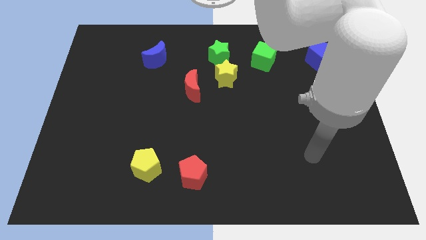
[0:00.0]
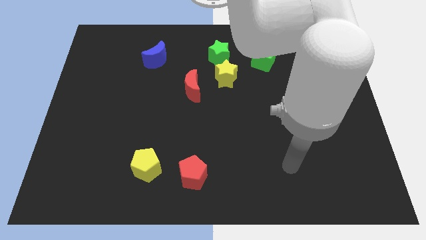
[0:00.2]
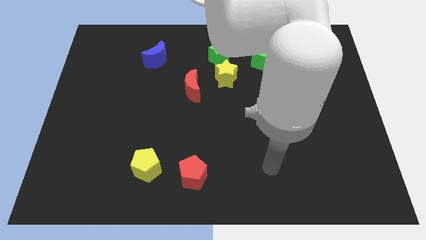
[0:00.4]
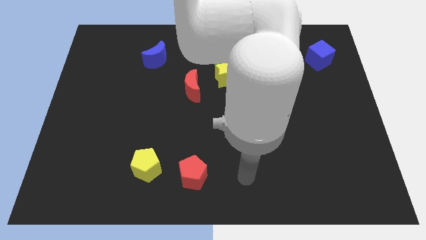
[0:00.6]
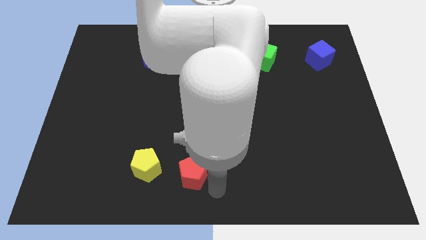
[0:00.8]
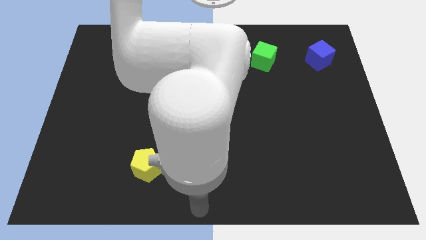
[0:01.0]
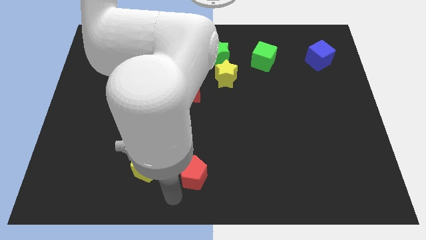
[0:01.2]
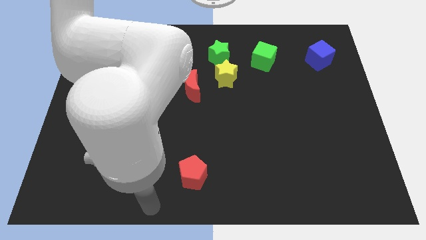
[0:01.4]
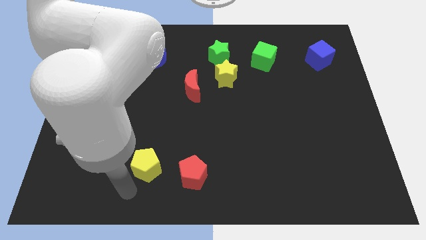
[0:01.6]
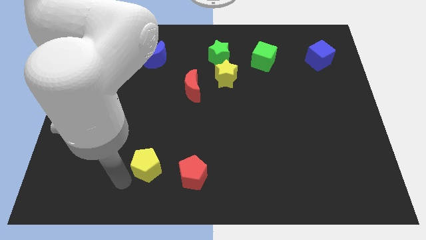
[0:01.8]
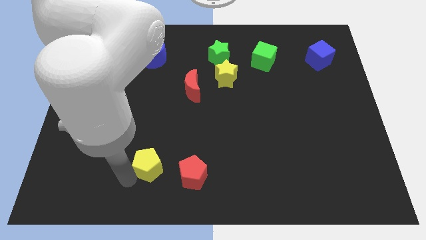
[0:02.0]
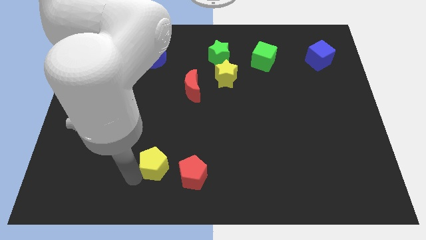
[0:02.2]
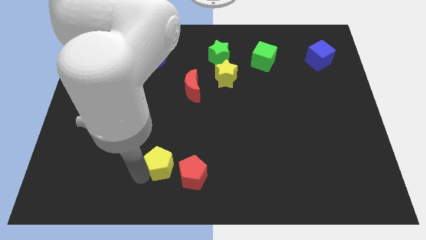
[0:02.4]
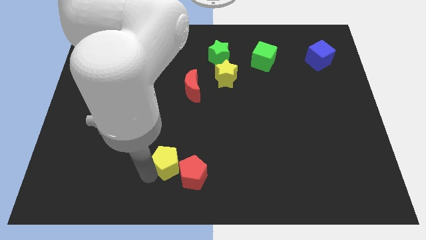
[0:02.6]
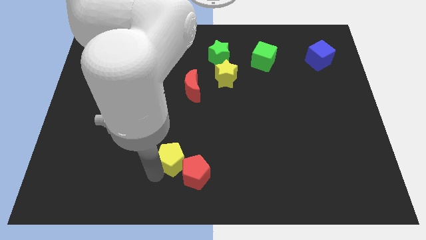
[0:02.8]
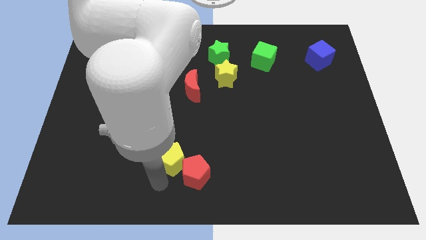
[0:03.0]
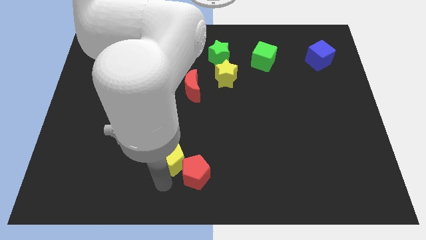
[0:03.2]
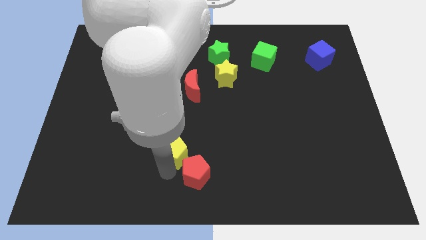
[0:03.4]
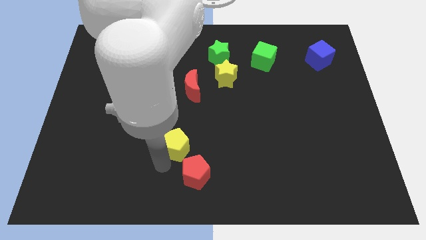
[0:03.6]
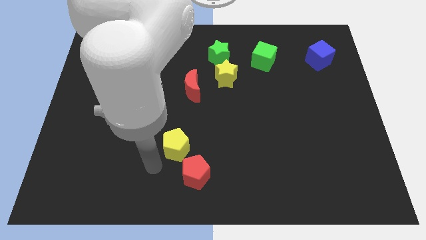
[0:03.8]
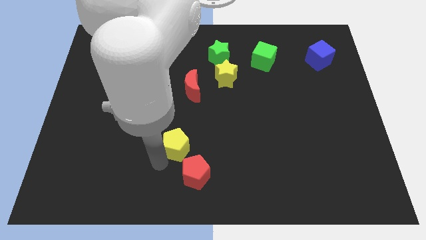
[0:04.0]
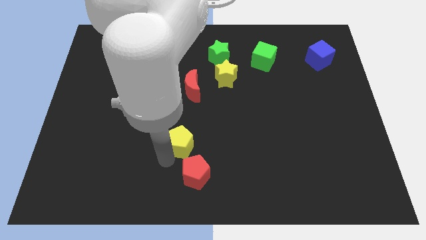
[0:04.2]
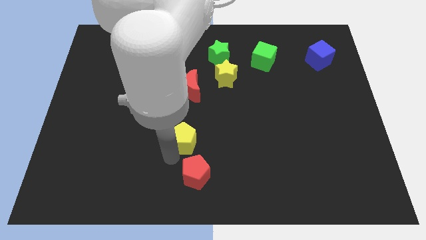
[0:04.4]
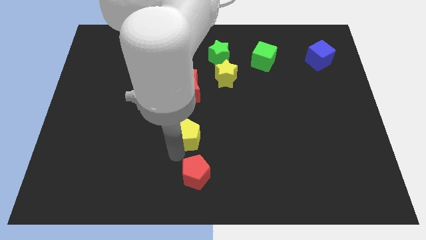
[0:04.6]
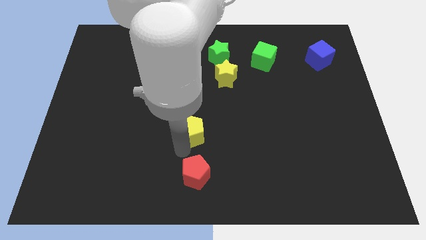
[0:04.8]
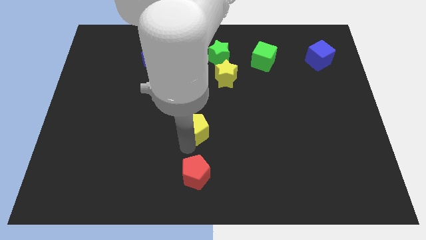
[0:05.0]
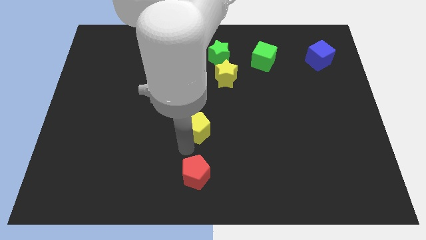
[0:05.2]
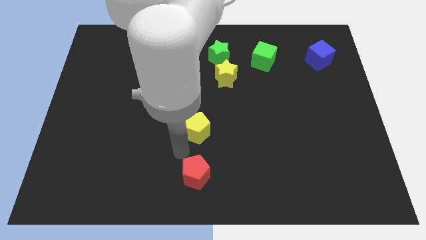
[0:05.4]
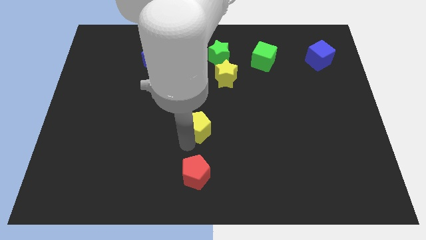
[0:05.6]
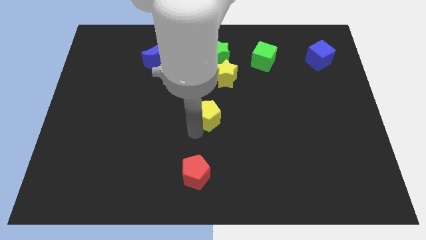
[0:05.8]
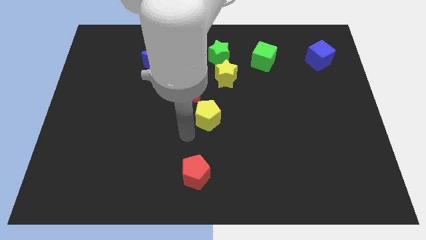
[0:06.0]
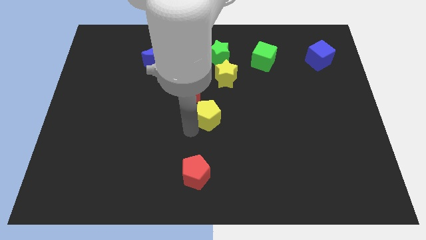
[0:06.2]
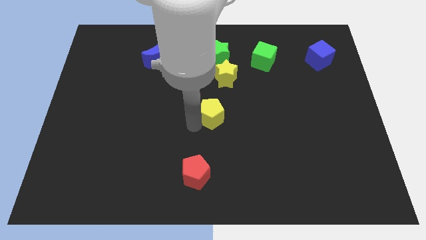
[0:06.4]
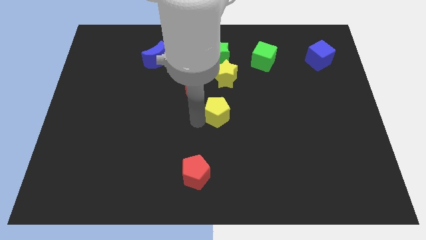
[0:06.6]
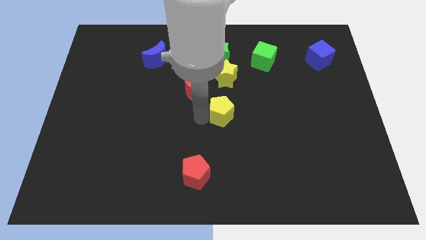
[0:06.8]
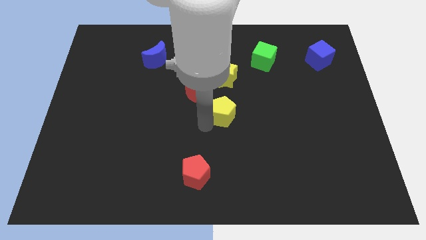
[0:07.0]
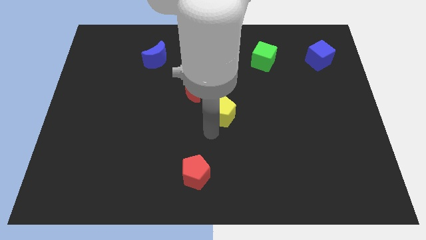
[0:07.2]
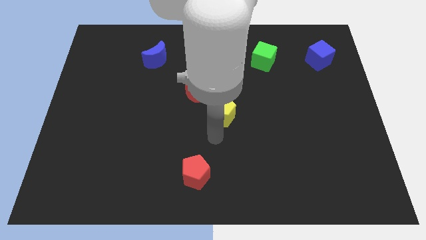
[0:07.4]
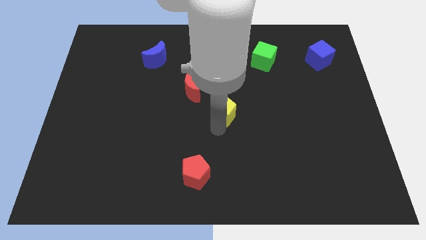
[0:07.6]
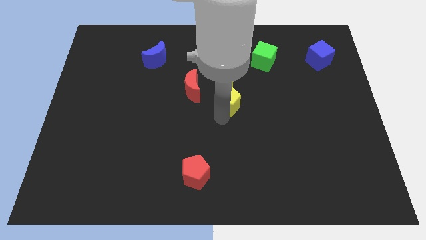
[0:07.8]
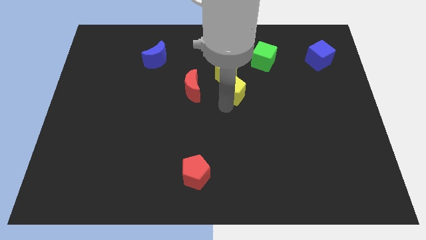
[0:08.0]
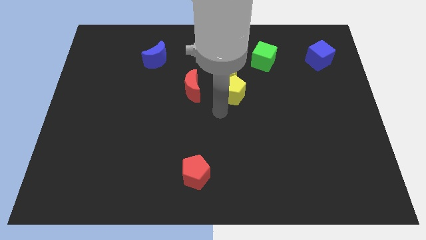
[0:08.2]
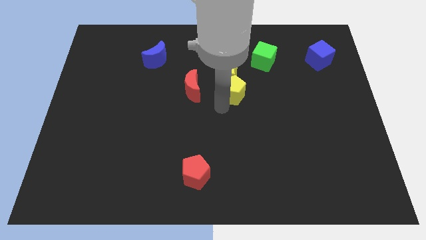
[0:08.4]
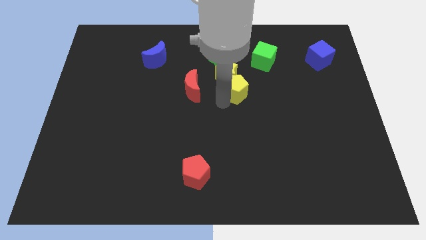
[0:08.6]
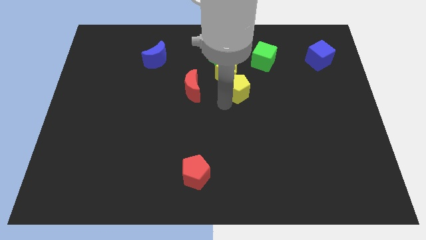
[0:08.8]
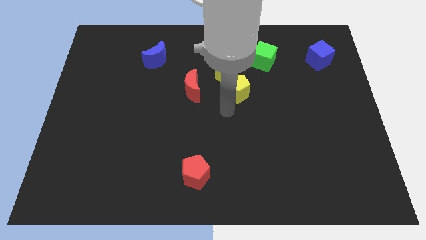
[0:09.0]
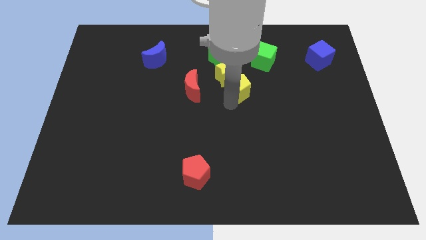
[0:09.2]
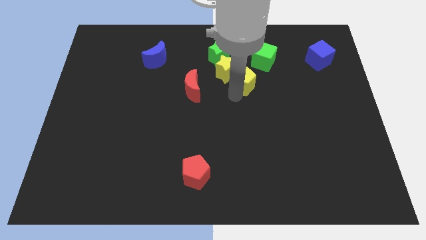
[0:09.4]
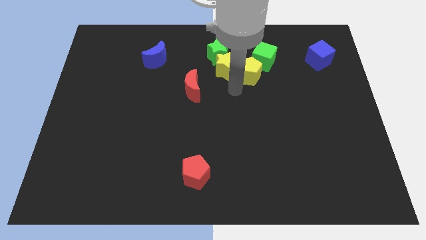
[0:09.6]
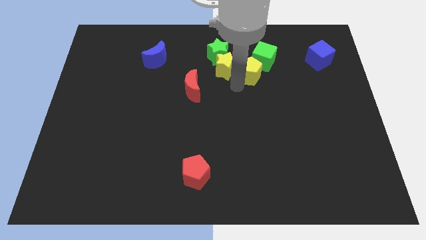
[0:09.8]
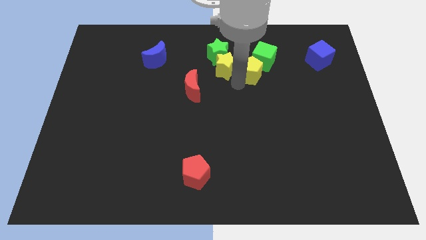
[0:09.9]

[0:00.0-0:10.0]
push the yellow pentagon close to the green cube

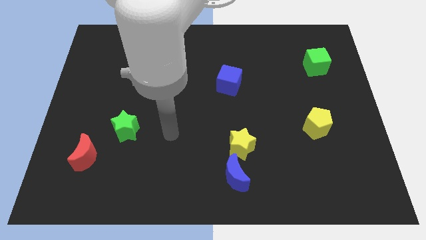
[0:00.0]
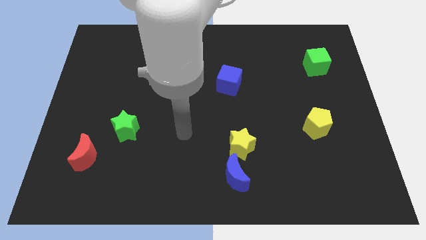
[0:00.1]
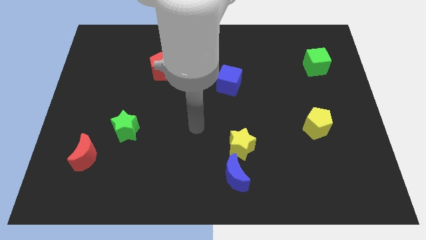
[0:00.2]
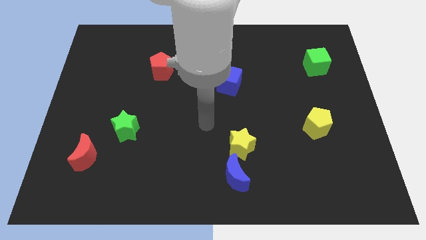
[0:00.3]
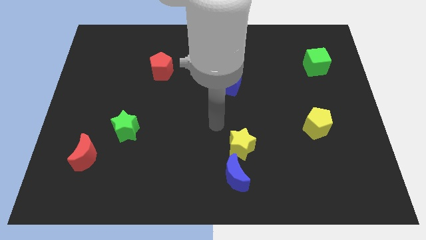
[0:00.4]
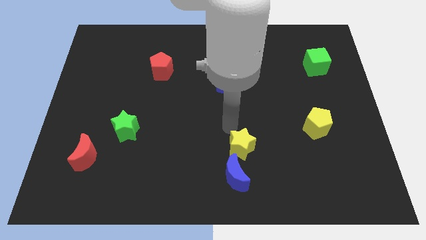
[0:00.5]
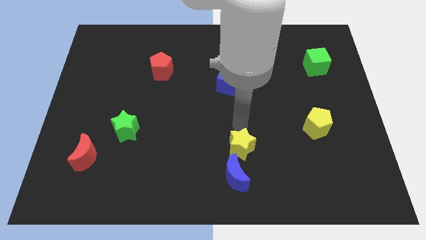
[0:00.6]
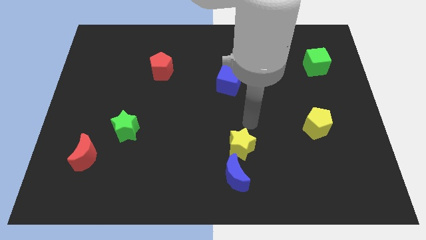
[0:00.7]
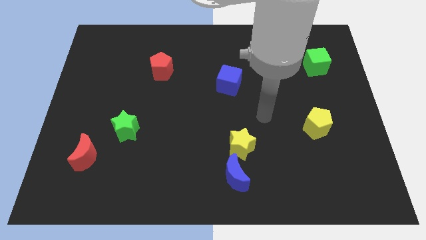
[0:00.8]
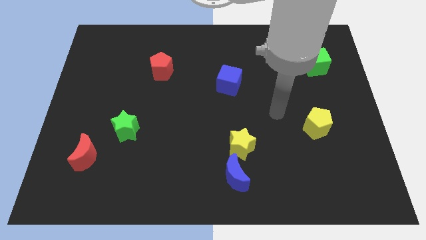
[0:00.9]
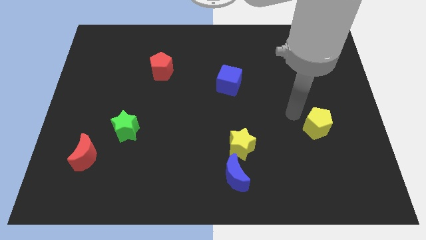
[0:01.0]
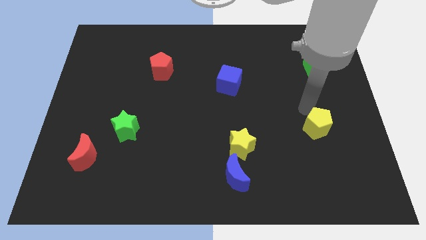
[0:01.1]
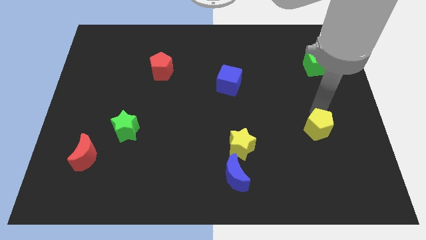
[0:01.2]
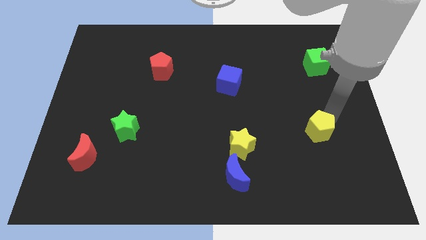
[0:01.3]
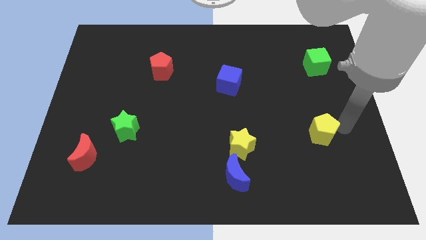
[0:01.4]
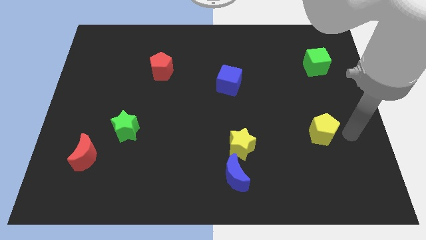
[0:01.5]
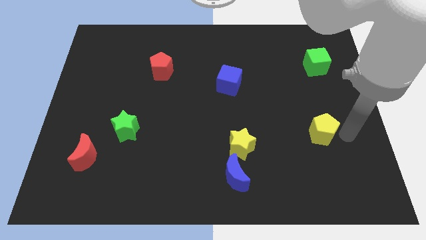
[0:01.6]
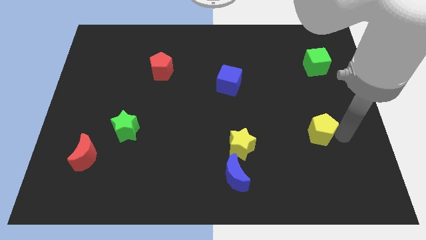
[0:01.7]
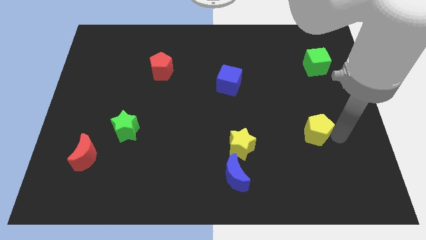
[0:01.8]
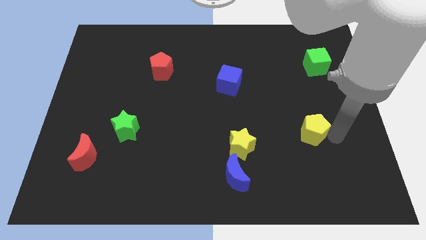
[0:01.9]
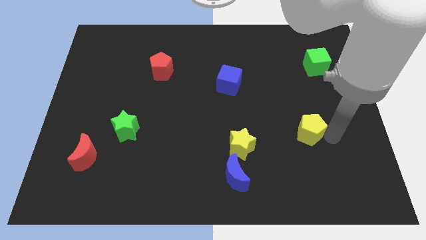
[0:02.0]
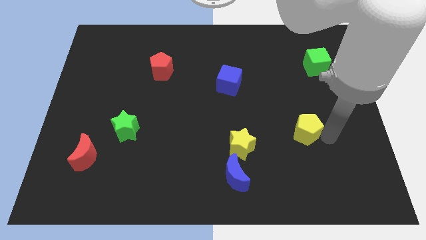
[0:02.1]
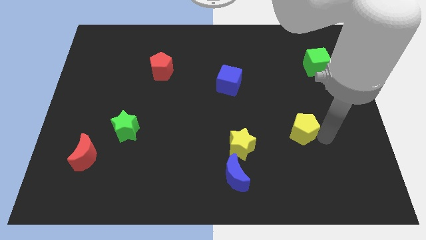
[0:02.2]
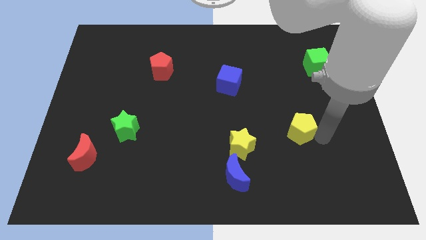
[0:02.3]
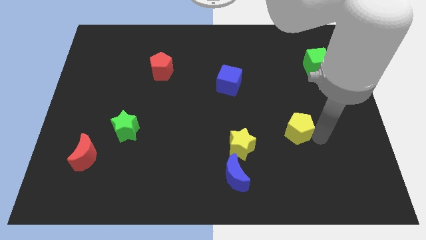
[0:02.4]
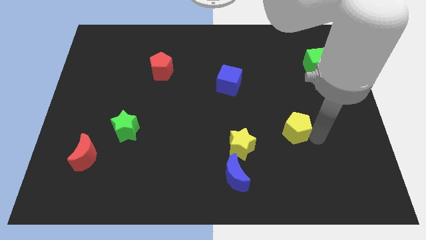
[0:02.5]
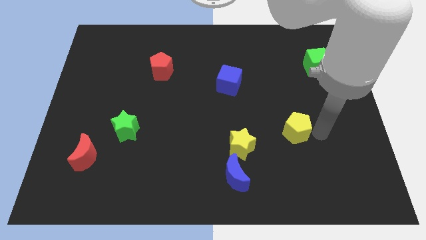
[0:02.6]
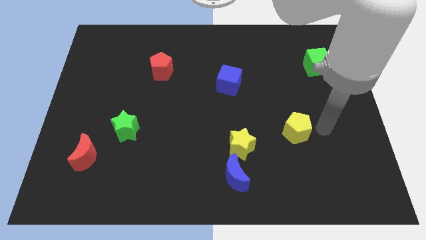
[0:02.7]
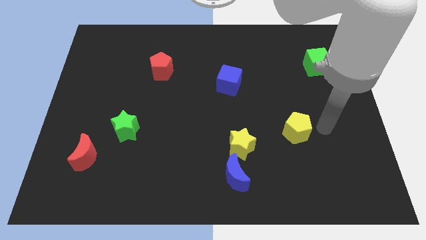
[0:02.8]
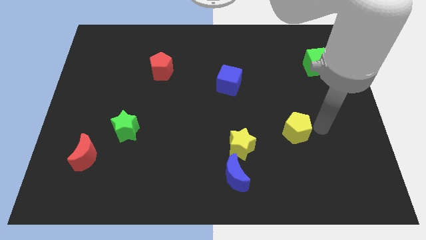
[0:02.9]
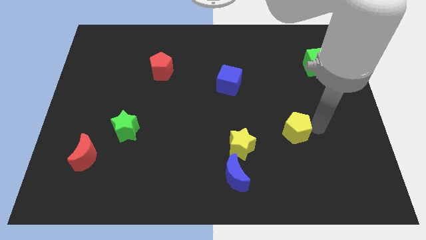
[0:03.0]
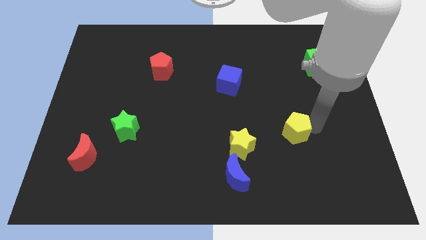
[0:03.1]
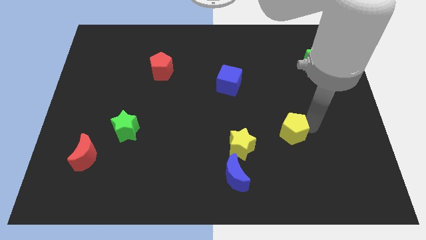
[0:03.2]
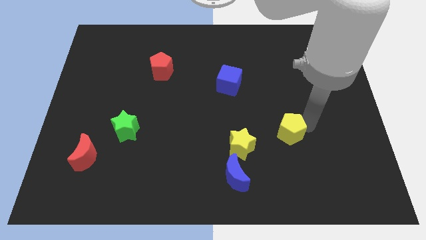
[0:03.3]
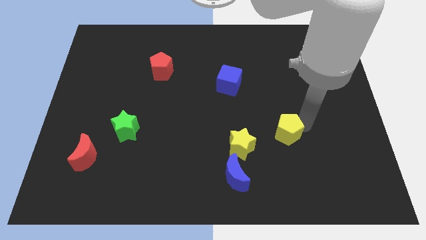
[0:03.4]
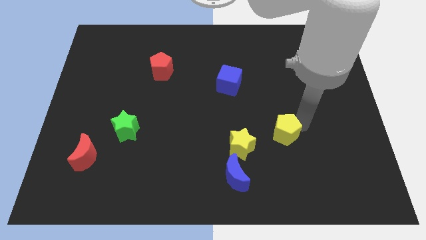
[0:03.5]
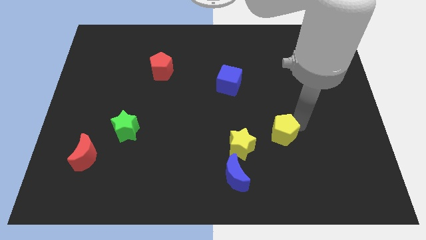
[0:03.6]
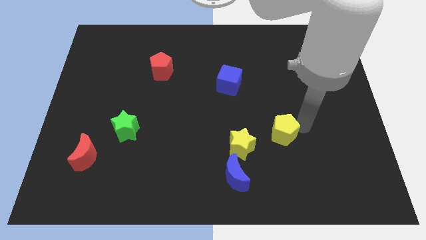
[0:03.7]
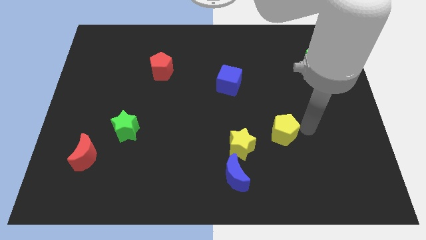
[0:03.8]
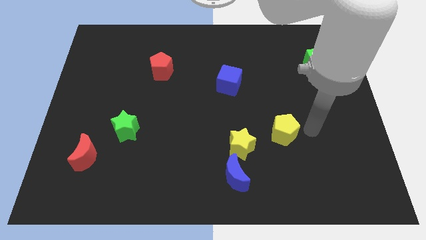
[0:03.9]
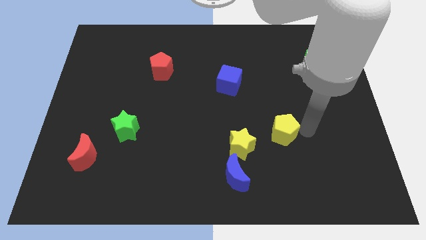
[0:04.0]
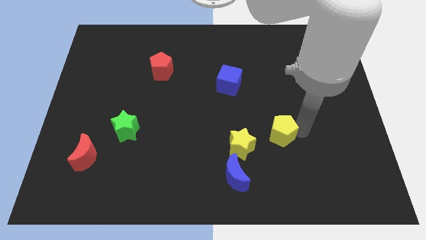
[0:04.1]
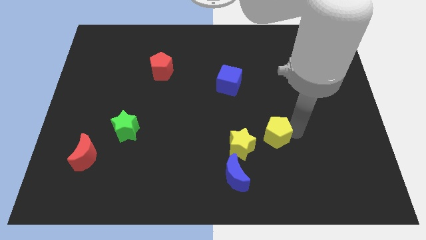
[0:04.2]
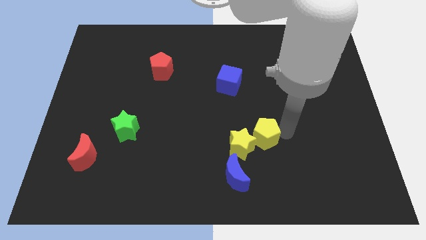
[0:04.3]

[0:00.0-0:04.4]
put the yellow pentagon to the yellow star
